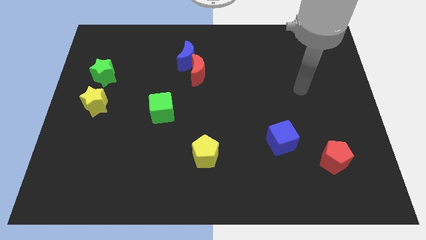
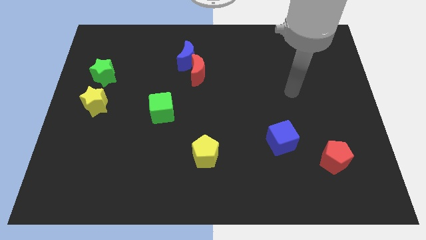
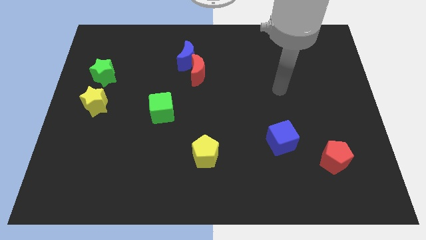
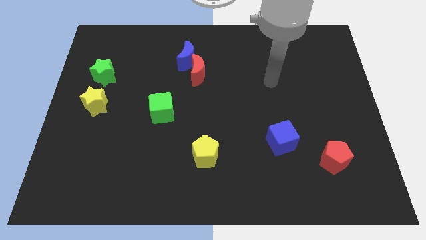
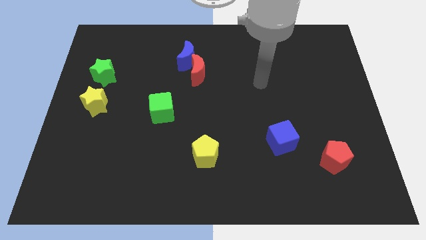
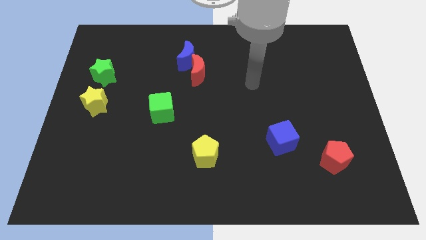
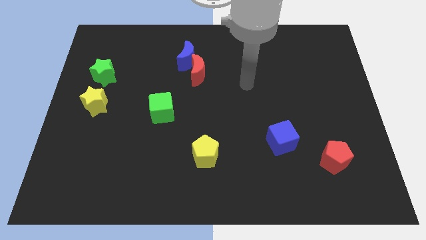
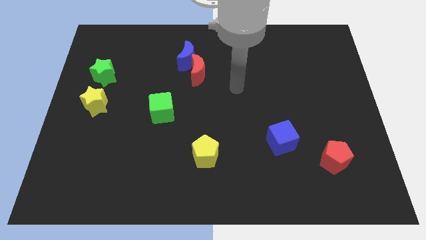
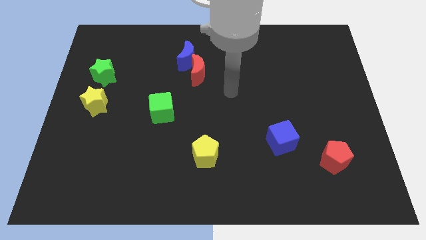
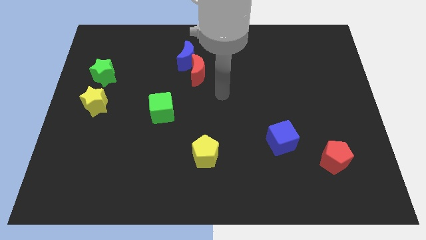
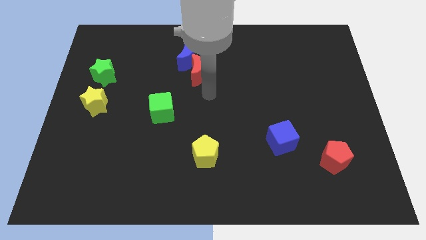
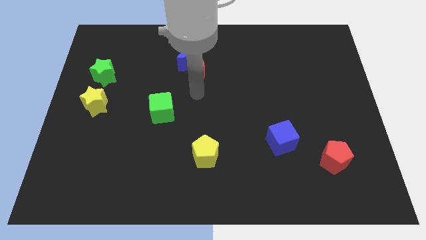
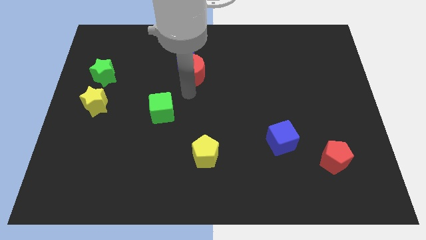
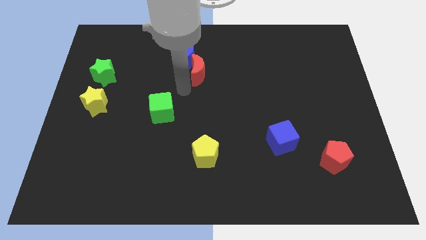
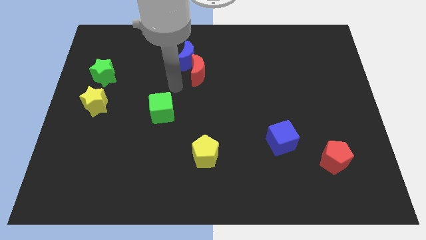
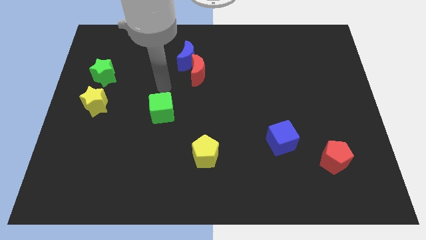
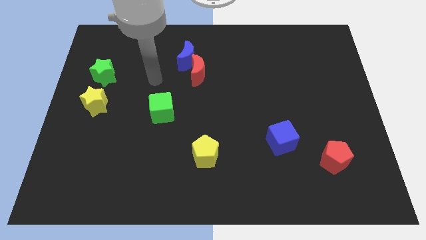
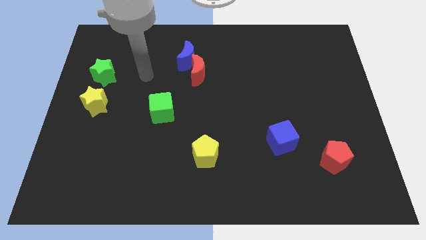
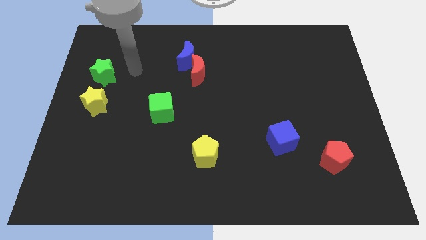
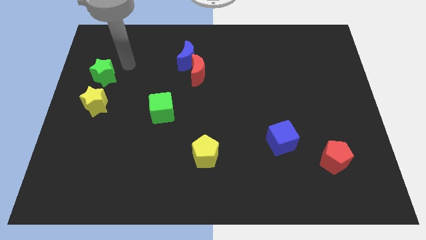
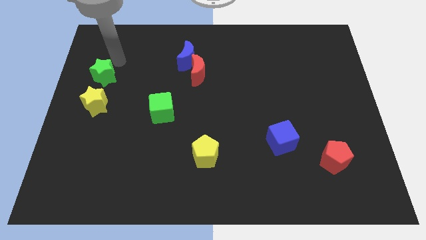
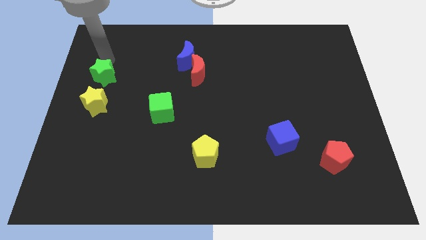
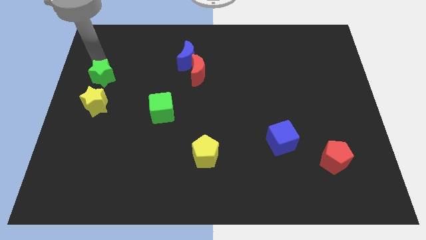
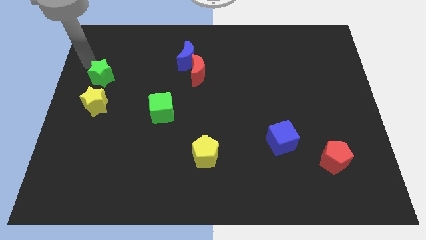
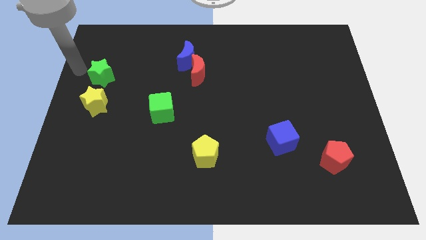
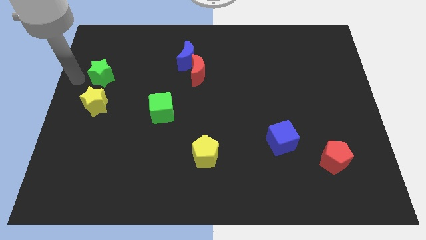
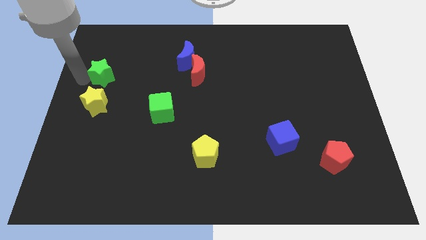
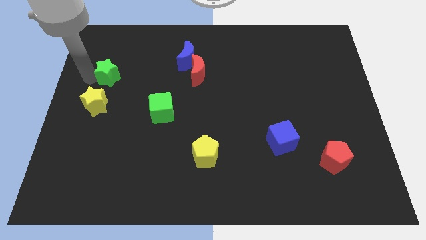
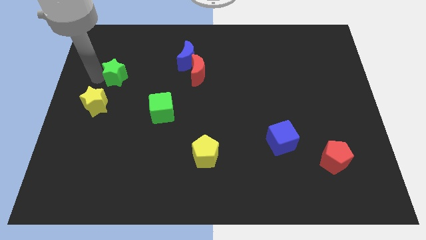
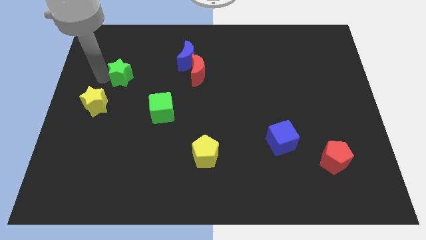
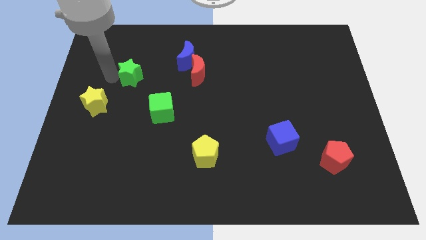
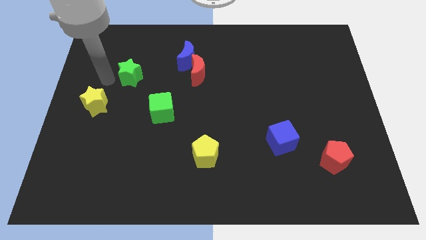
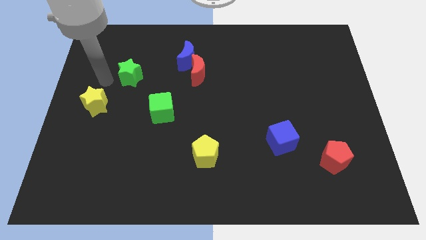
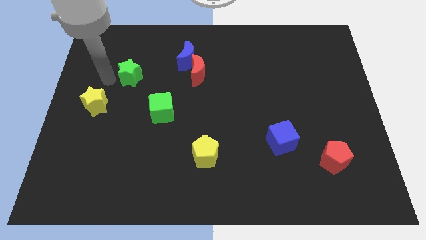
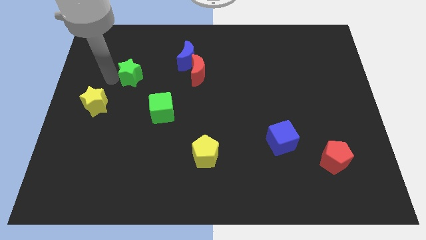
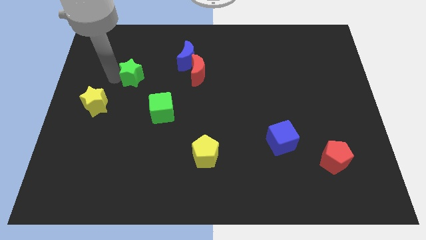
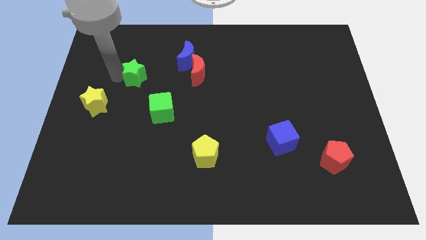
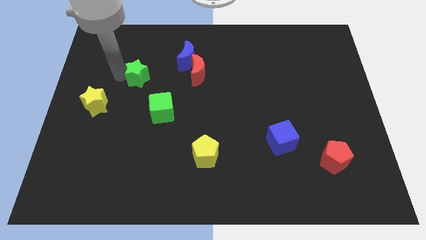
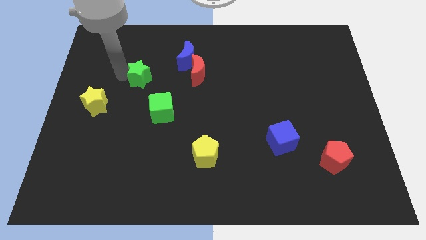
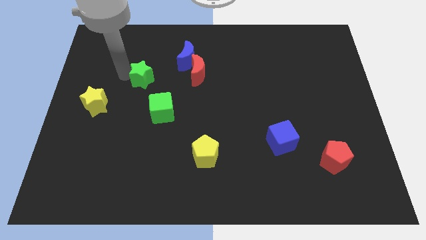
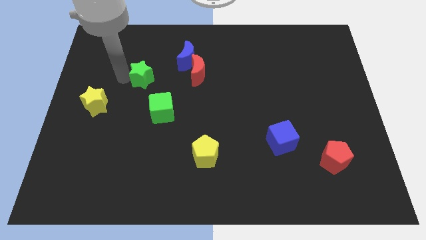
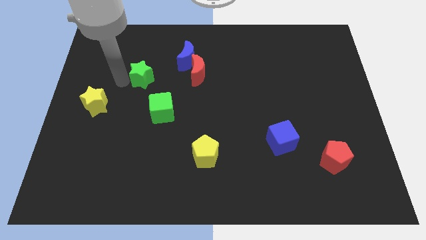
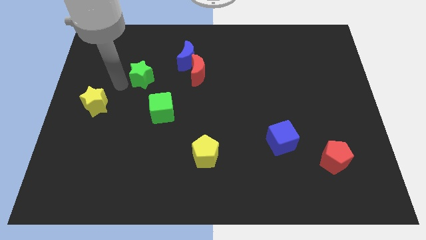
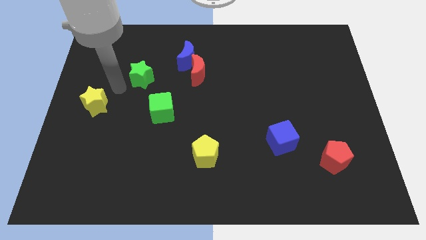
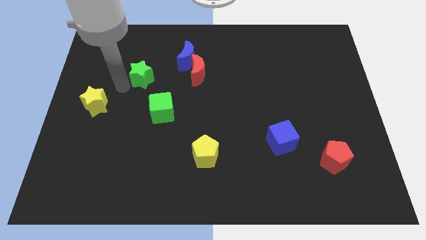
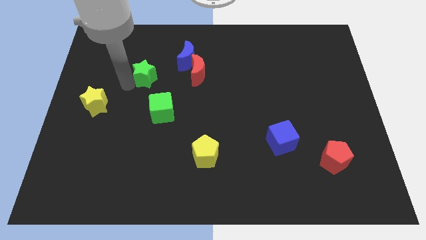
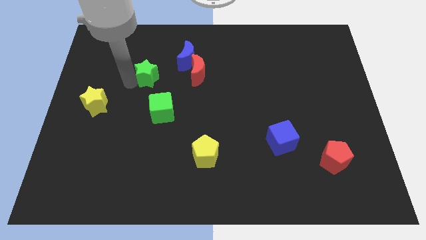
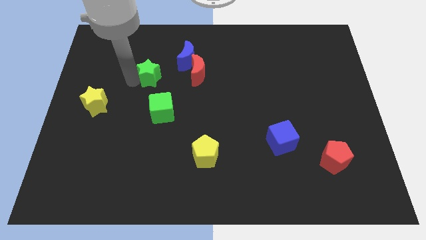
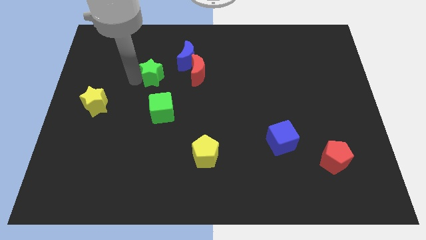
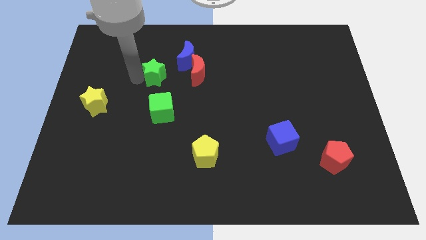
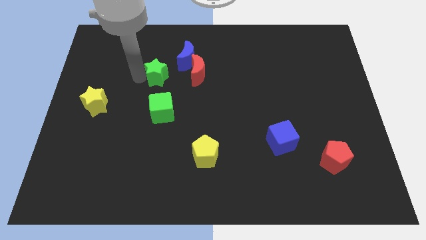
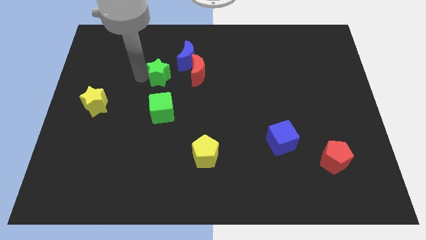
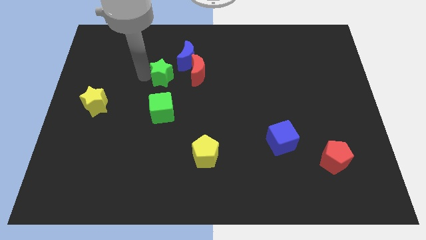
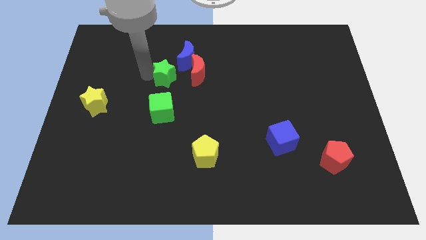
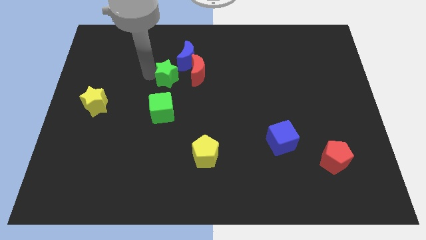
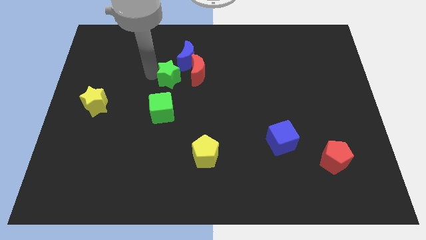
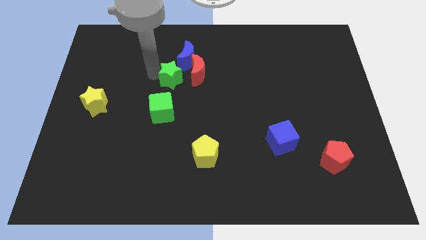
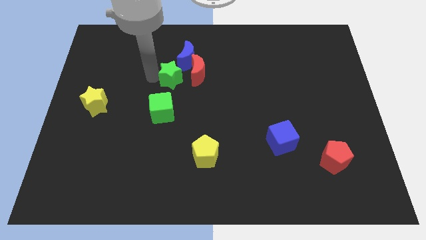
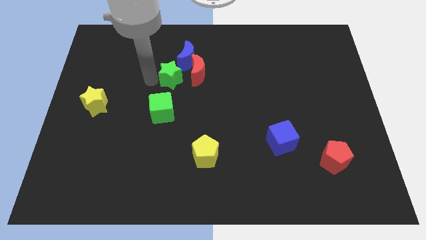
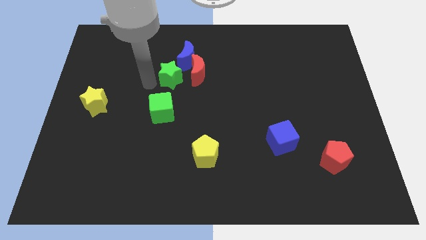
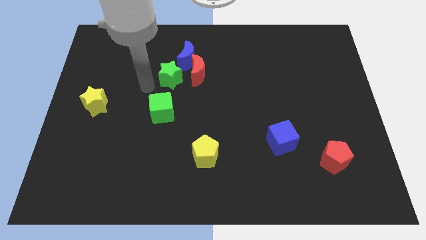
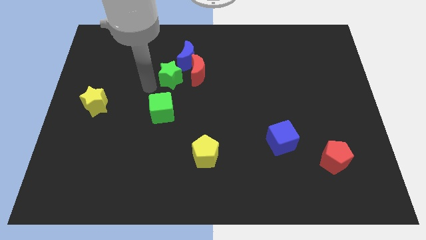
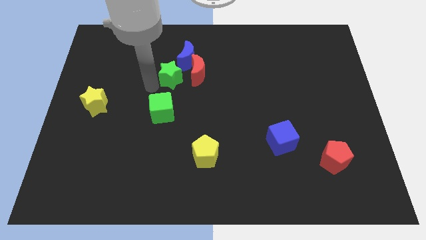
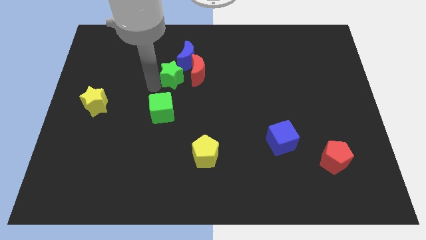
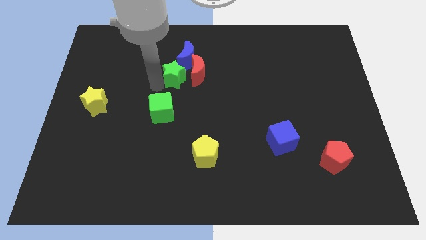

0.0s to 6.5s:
move the green star close to the red moon

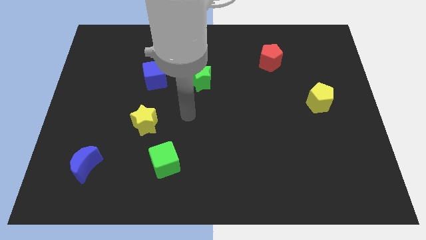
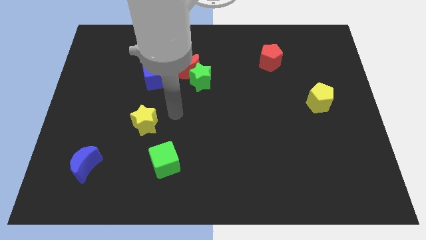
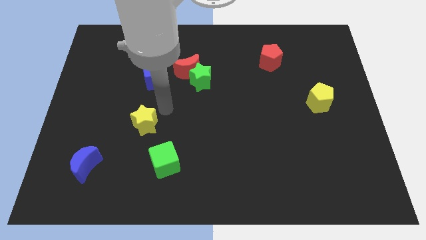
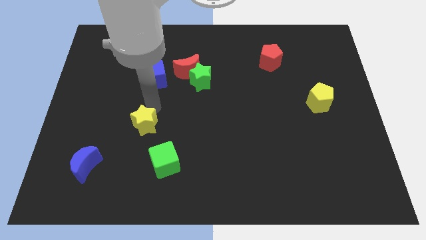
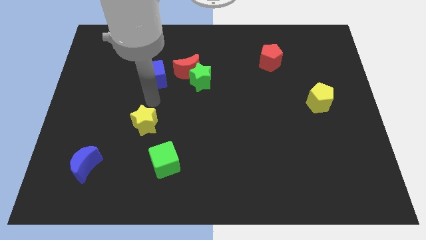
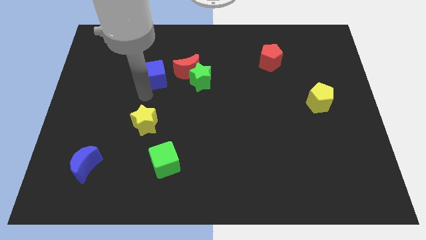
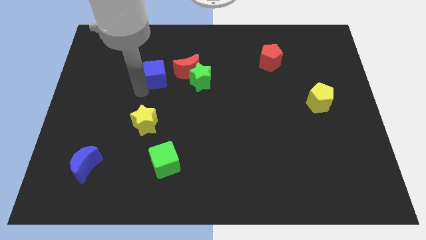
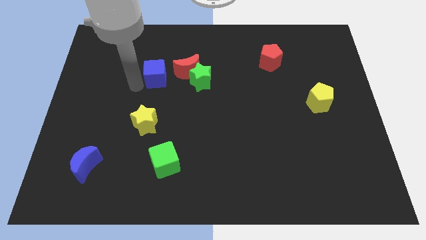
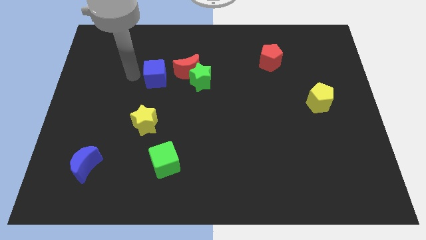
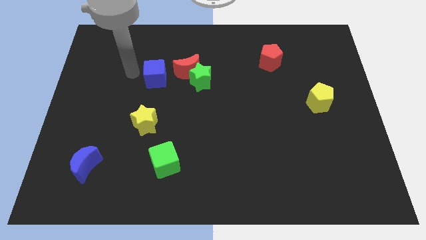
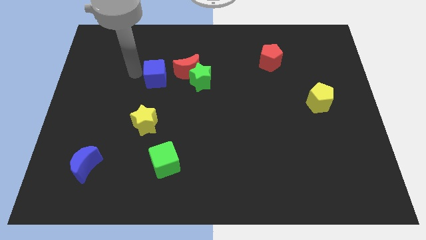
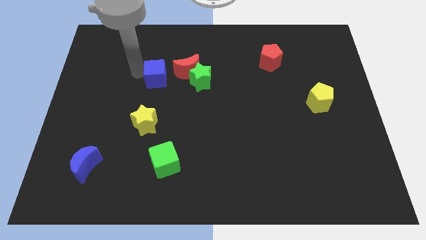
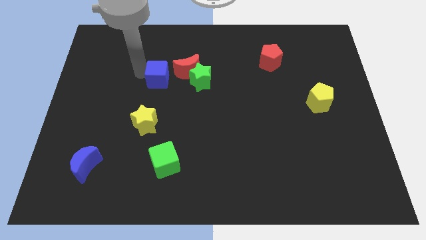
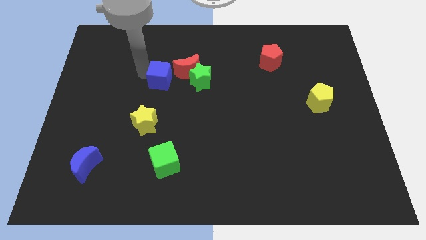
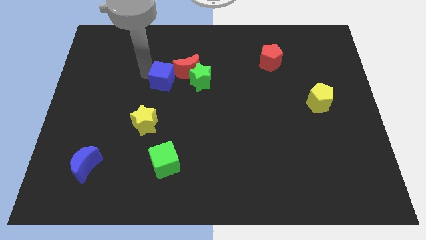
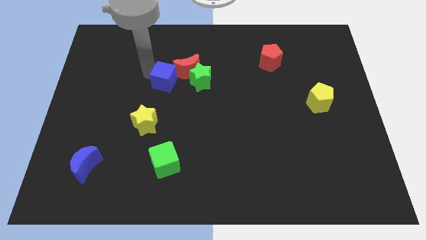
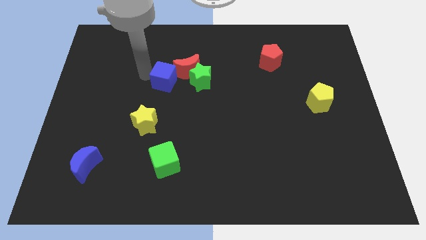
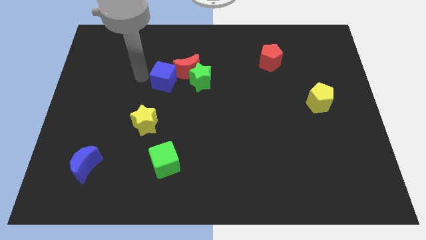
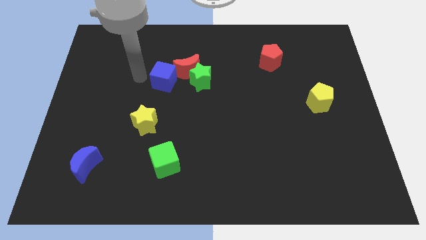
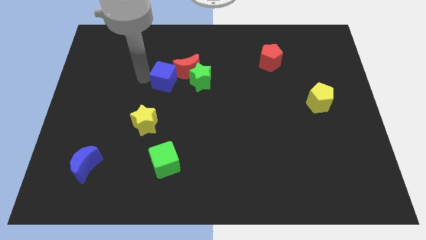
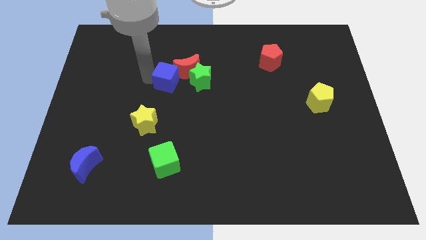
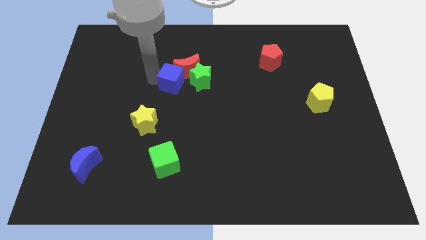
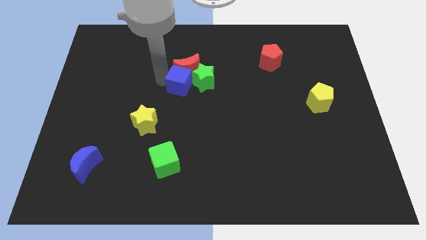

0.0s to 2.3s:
slide the blue cube to the green star
